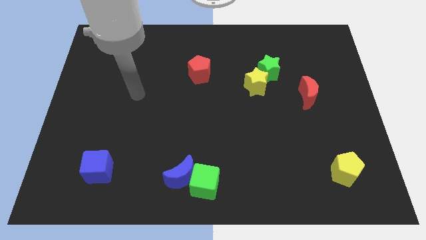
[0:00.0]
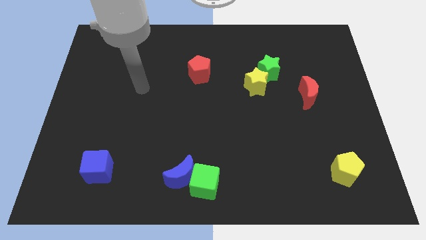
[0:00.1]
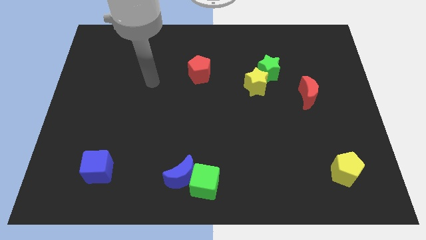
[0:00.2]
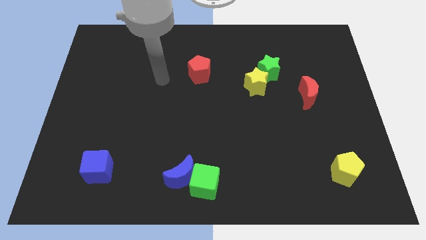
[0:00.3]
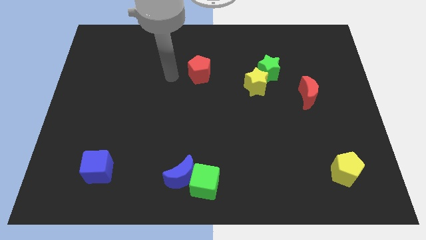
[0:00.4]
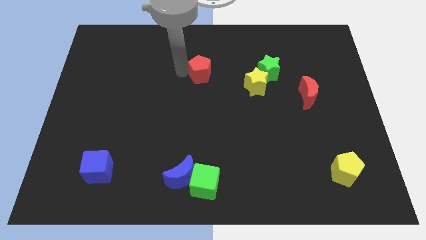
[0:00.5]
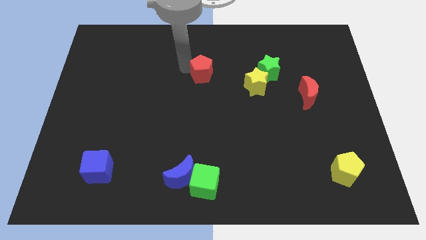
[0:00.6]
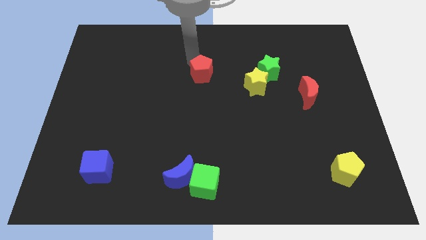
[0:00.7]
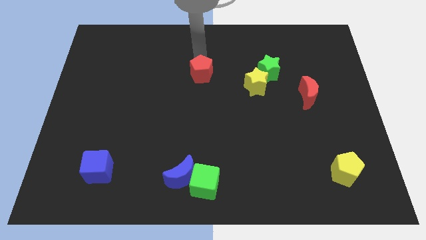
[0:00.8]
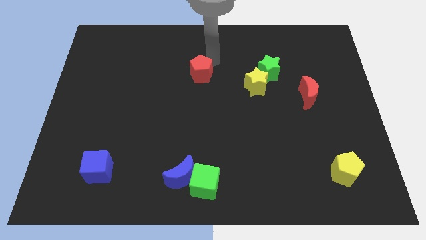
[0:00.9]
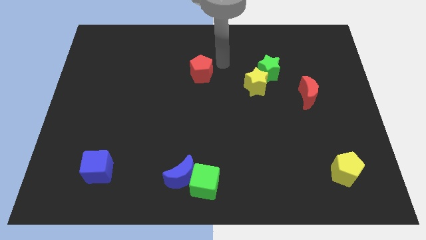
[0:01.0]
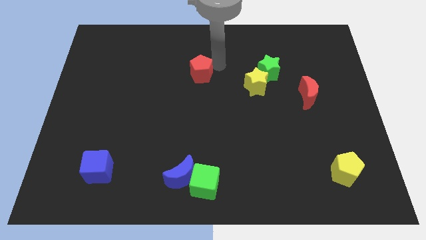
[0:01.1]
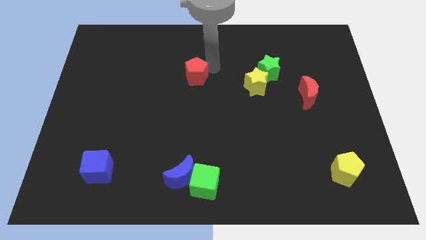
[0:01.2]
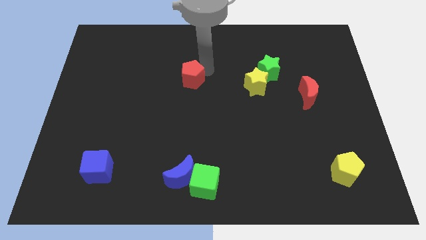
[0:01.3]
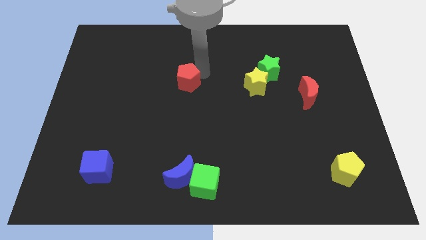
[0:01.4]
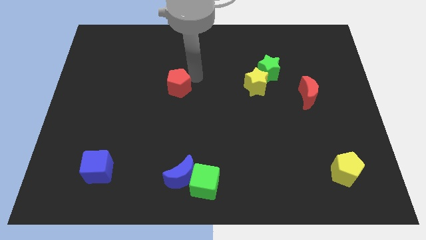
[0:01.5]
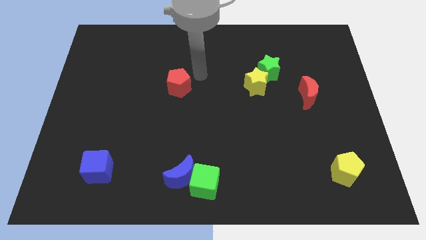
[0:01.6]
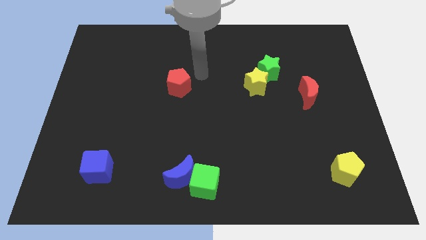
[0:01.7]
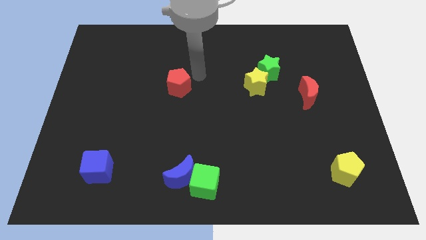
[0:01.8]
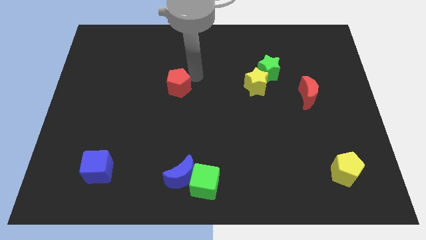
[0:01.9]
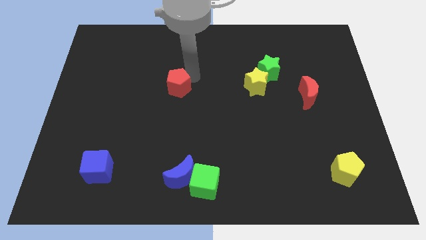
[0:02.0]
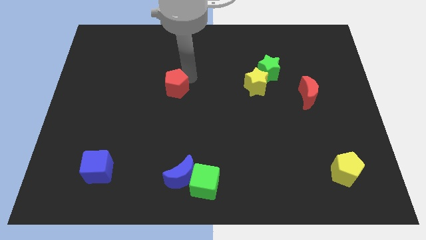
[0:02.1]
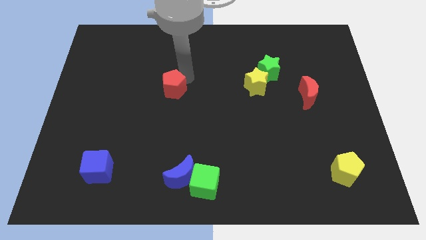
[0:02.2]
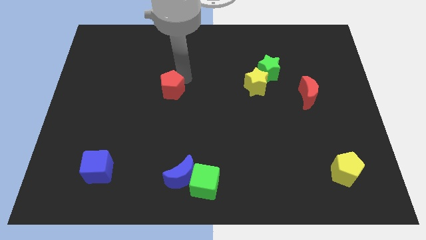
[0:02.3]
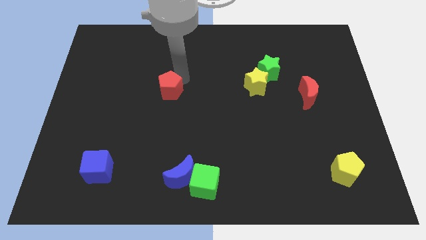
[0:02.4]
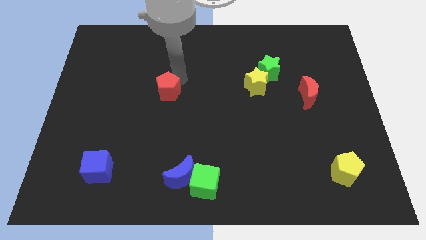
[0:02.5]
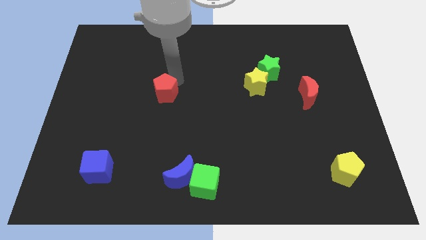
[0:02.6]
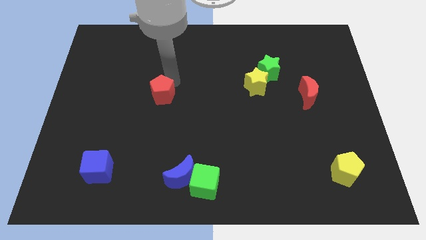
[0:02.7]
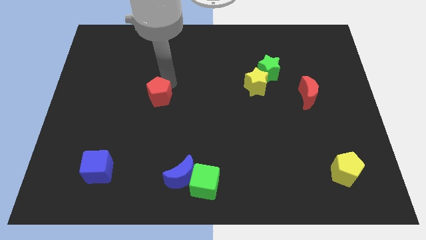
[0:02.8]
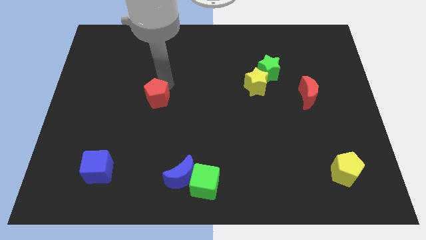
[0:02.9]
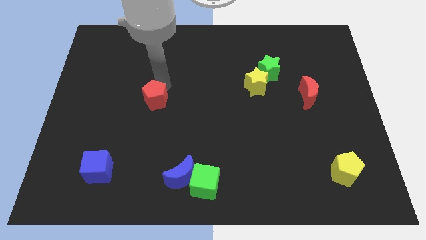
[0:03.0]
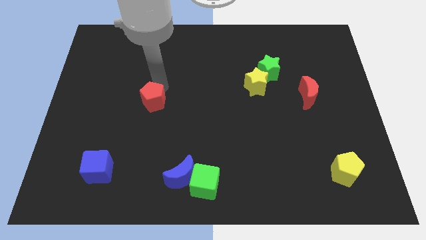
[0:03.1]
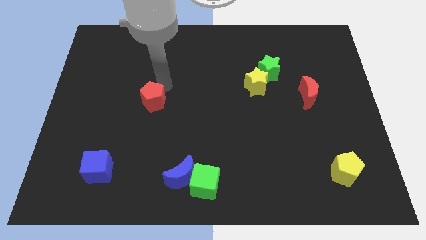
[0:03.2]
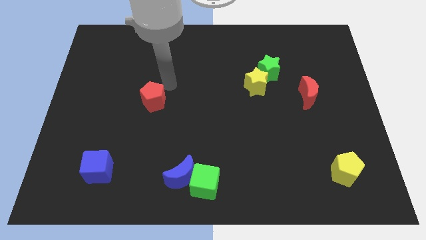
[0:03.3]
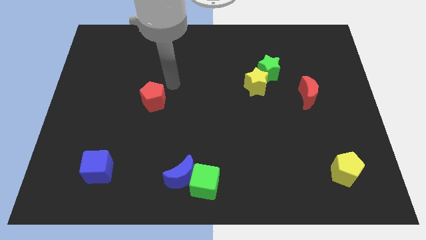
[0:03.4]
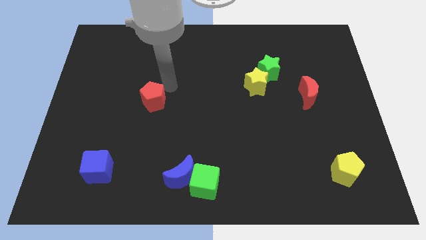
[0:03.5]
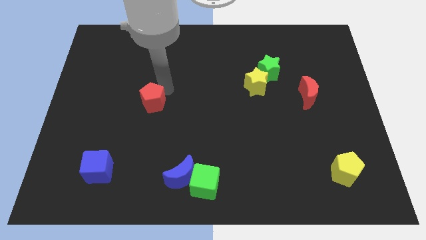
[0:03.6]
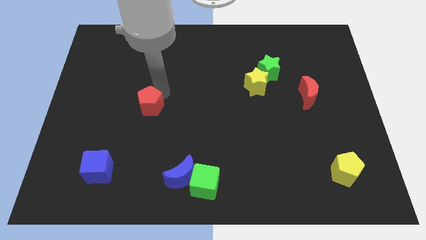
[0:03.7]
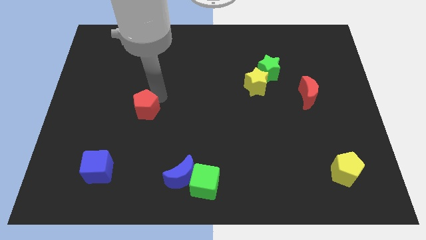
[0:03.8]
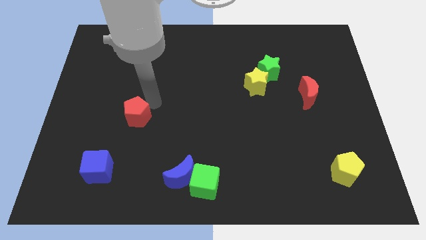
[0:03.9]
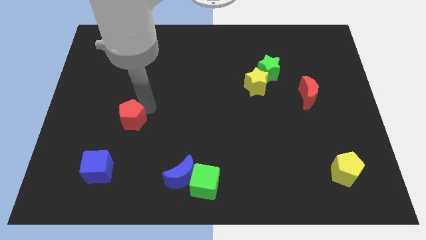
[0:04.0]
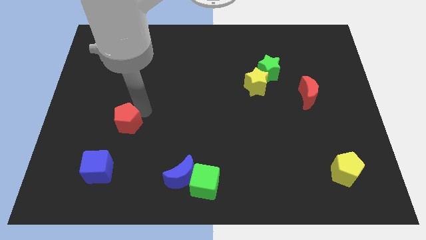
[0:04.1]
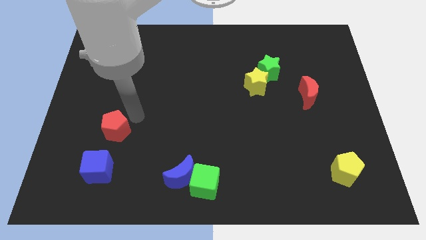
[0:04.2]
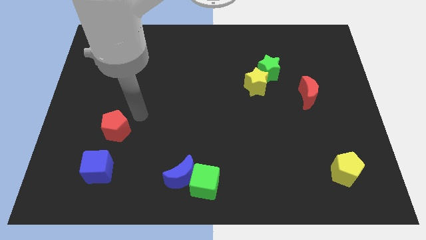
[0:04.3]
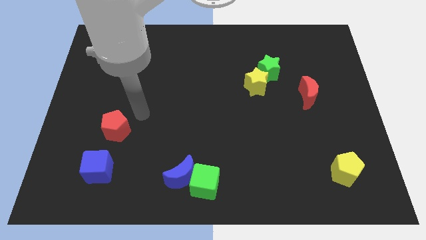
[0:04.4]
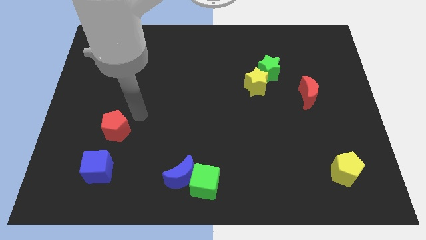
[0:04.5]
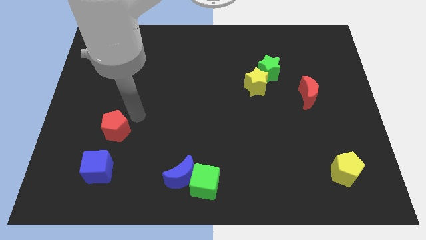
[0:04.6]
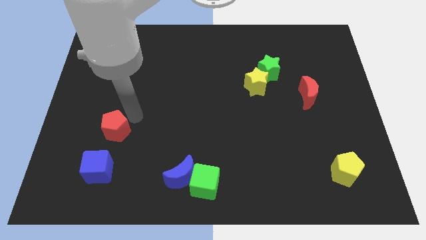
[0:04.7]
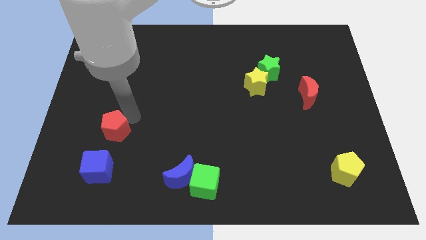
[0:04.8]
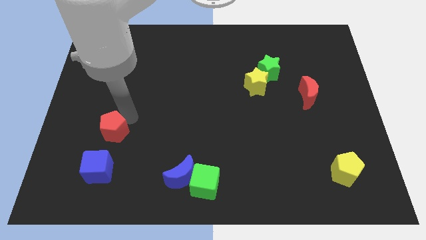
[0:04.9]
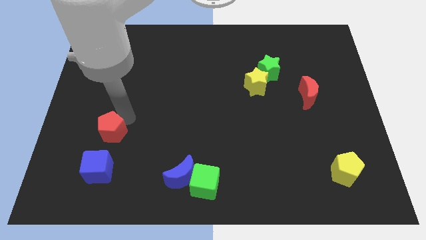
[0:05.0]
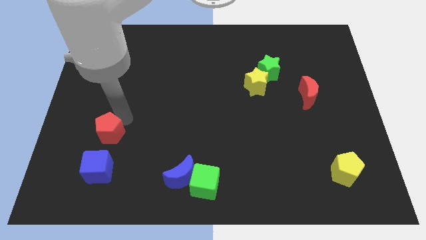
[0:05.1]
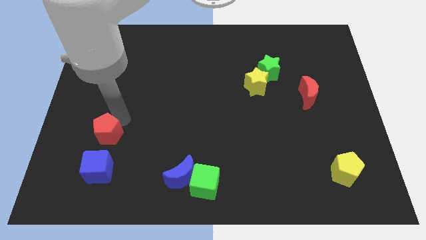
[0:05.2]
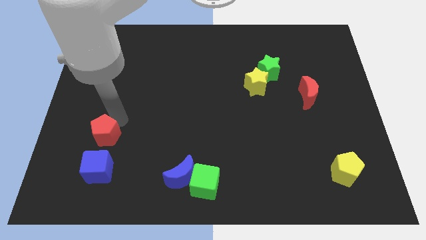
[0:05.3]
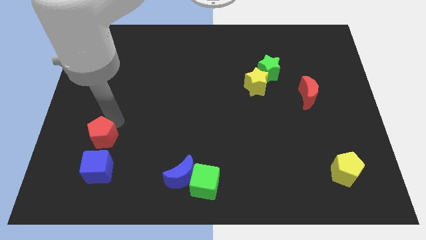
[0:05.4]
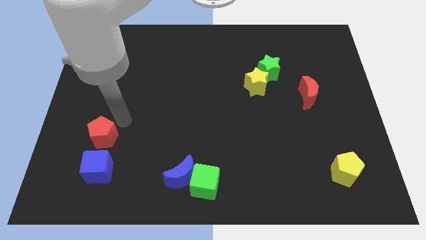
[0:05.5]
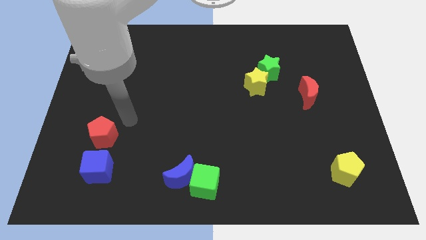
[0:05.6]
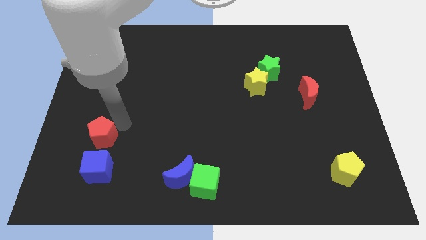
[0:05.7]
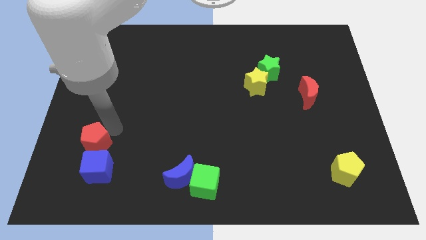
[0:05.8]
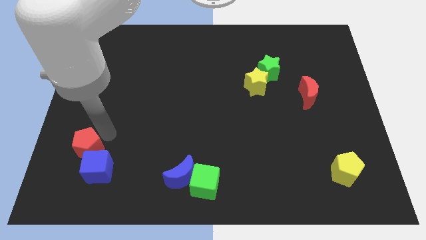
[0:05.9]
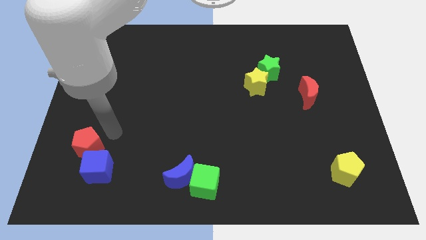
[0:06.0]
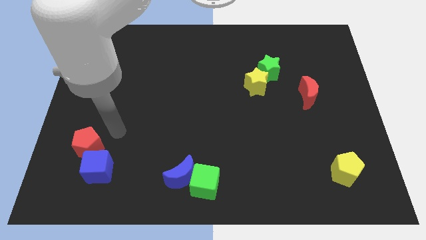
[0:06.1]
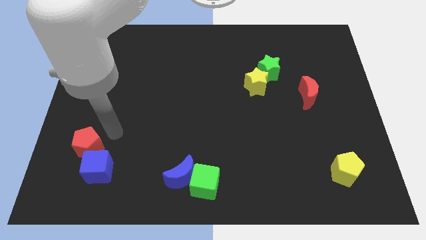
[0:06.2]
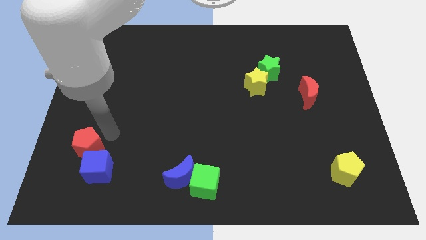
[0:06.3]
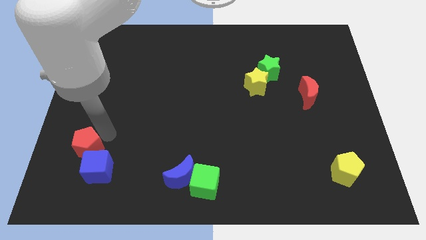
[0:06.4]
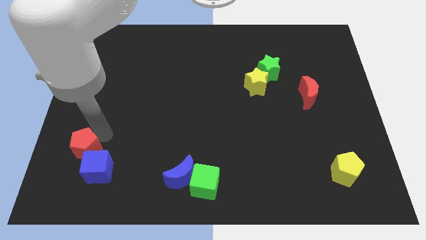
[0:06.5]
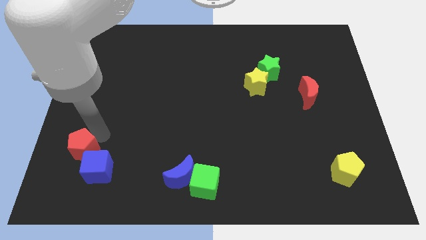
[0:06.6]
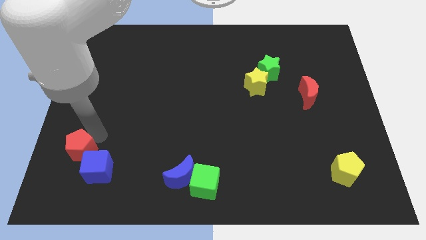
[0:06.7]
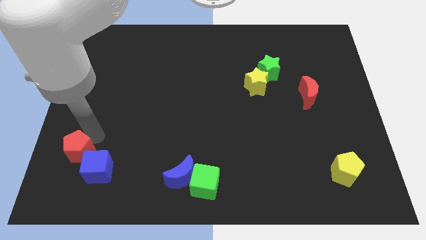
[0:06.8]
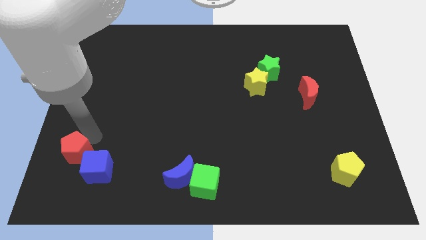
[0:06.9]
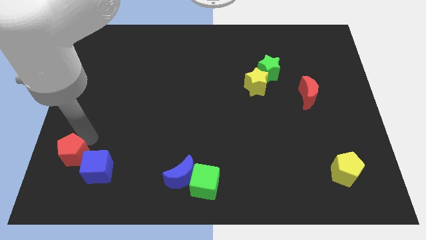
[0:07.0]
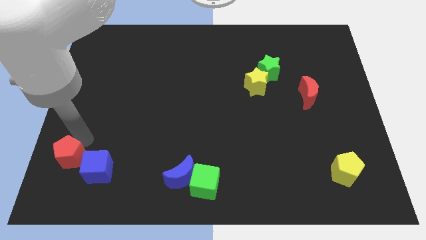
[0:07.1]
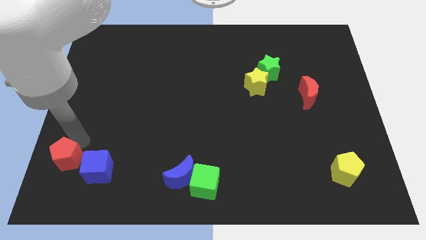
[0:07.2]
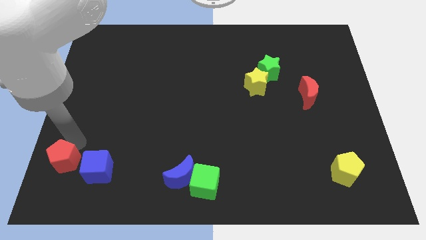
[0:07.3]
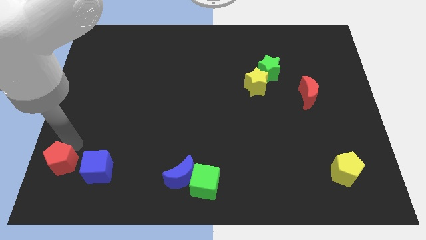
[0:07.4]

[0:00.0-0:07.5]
put the red pentagon to the bottom left
